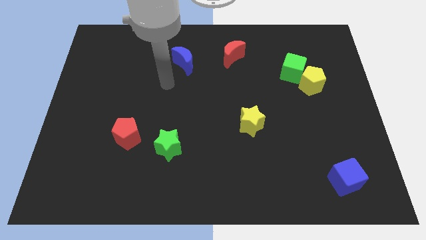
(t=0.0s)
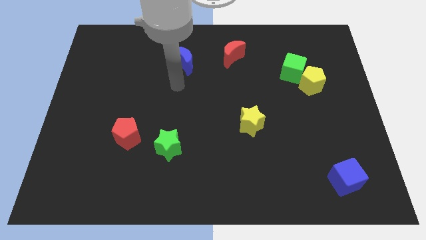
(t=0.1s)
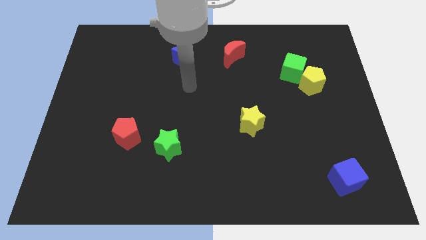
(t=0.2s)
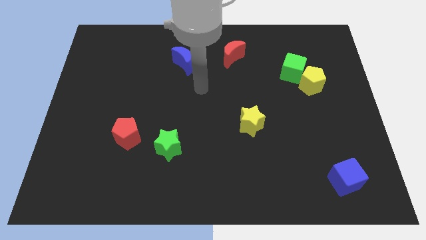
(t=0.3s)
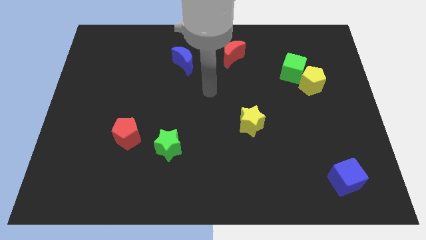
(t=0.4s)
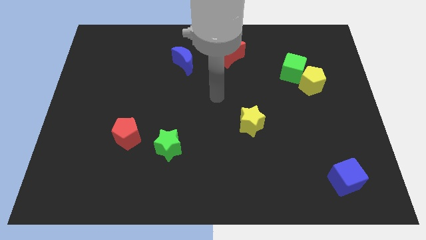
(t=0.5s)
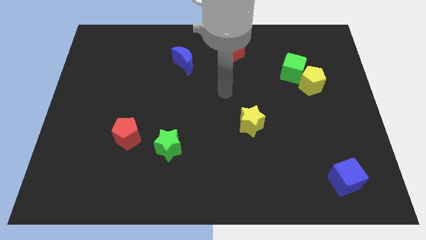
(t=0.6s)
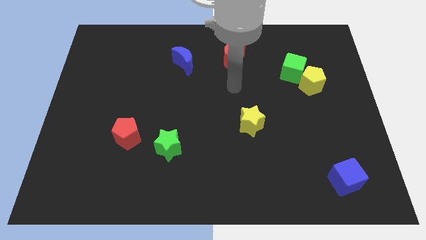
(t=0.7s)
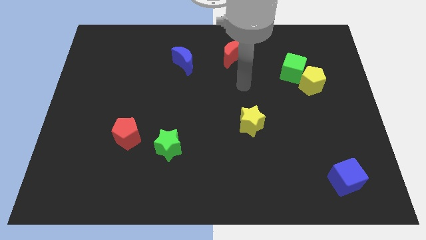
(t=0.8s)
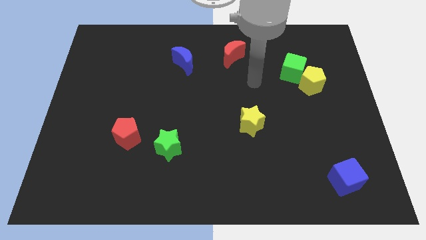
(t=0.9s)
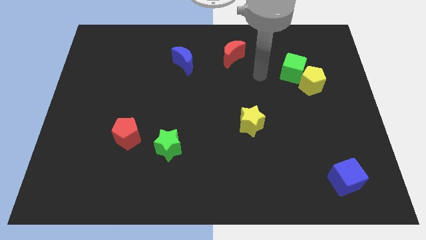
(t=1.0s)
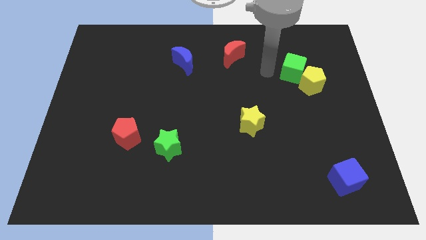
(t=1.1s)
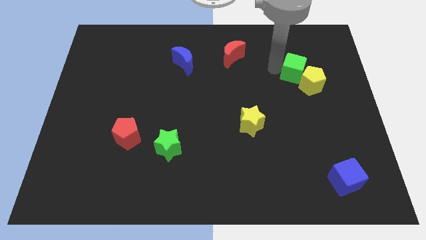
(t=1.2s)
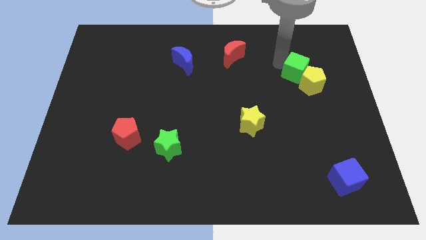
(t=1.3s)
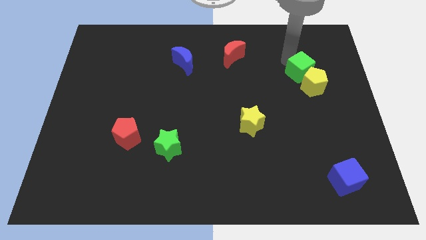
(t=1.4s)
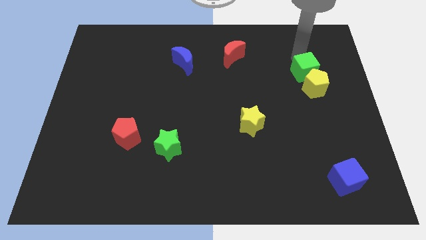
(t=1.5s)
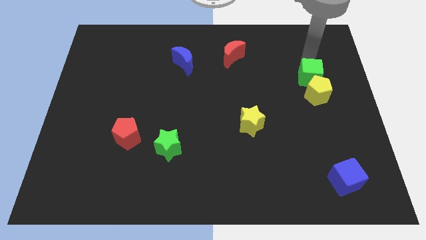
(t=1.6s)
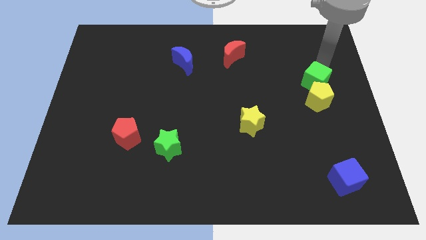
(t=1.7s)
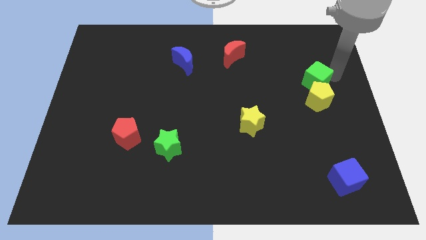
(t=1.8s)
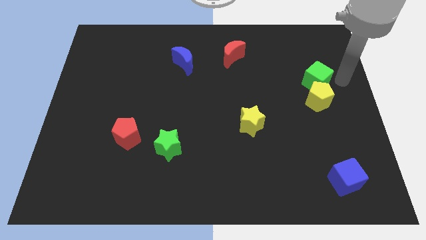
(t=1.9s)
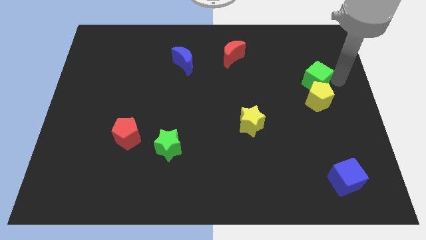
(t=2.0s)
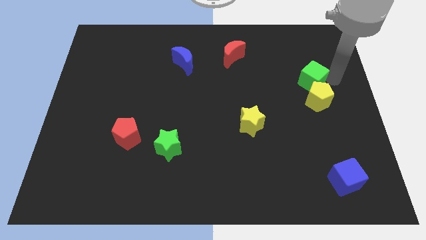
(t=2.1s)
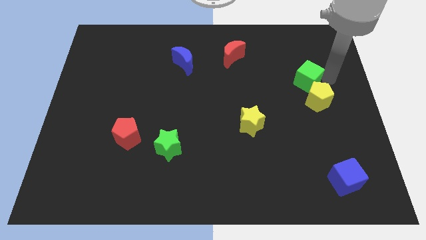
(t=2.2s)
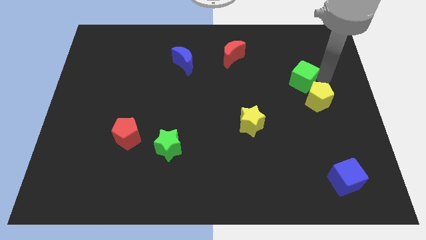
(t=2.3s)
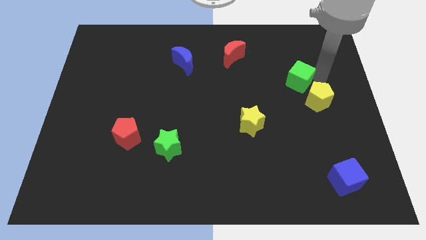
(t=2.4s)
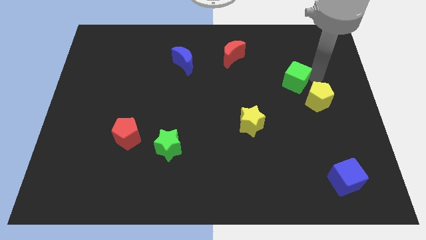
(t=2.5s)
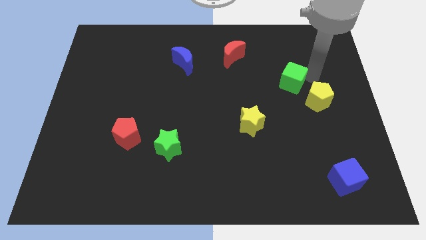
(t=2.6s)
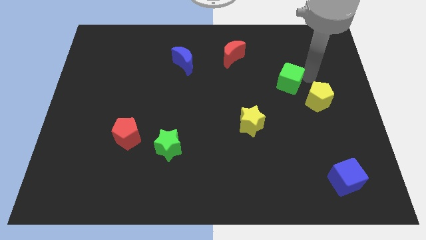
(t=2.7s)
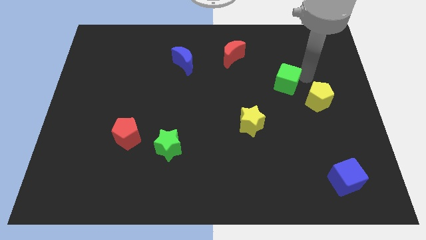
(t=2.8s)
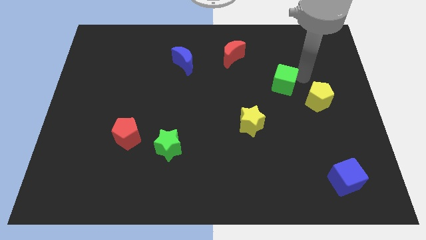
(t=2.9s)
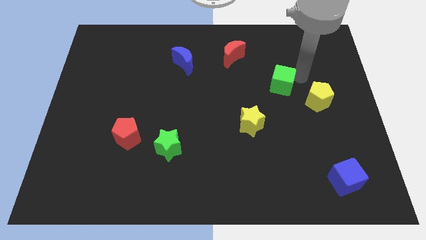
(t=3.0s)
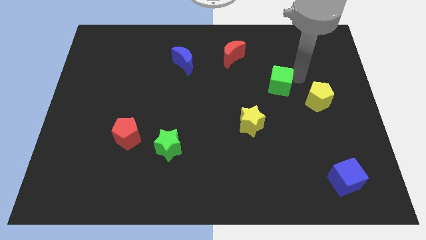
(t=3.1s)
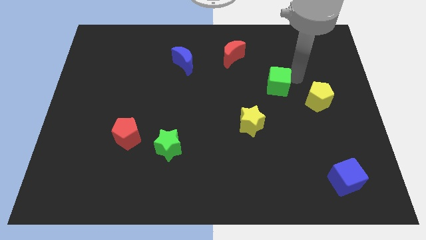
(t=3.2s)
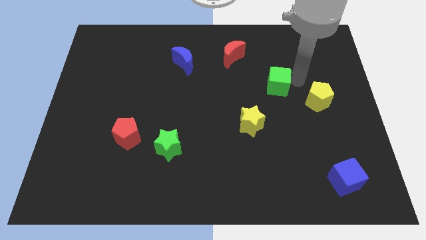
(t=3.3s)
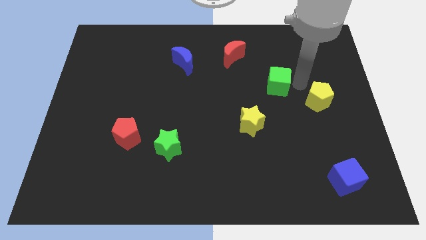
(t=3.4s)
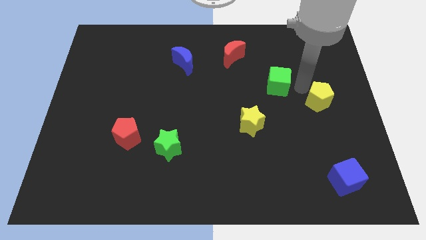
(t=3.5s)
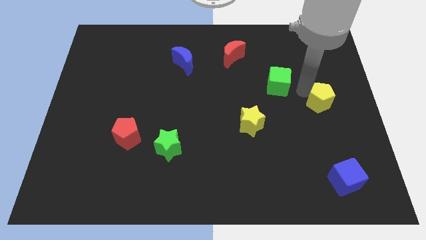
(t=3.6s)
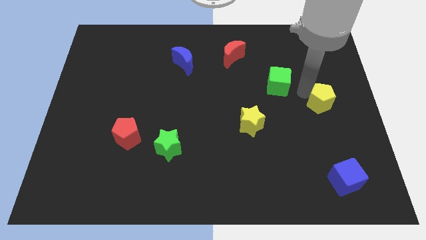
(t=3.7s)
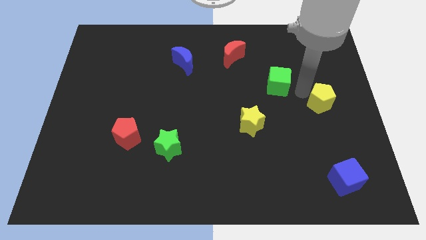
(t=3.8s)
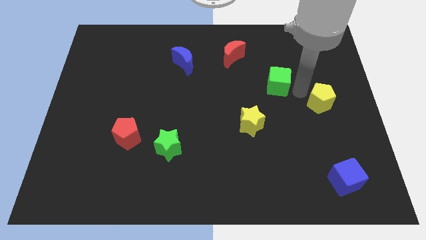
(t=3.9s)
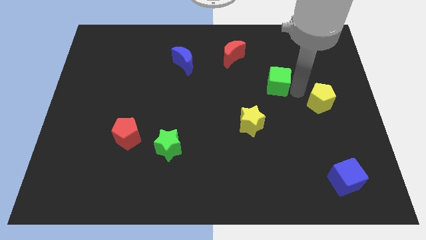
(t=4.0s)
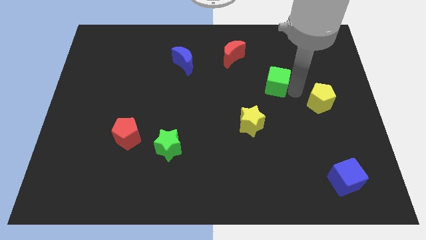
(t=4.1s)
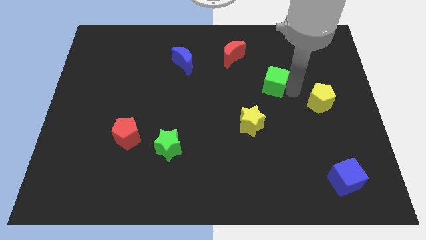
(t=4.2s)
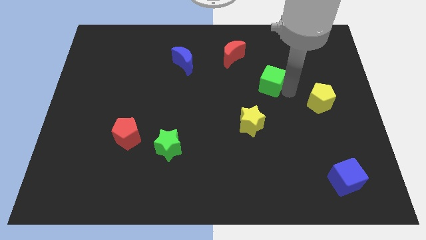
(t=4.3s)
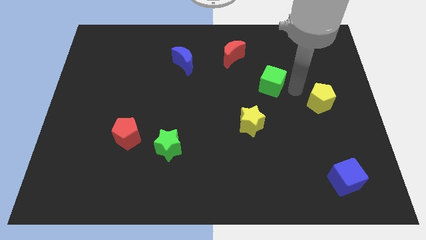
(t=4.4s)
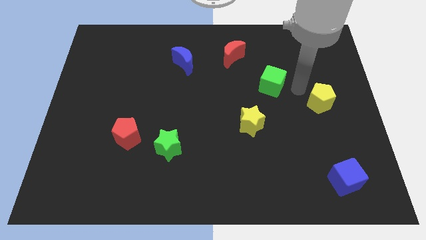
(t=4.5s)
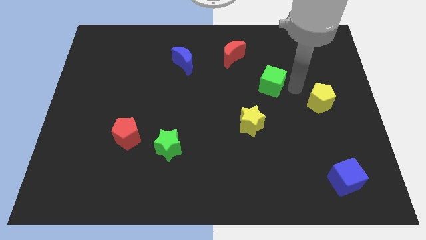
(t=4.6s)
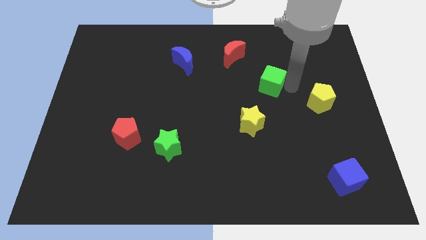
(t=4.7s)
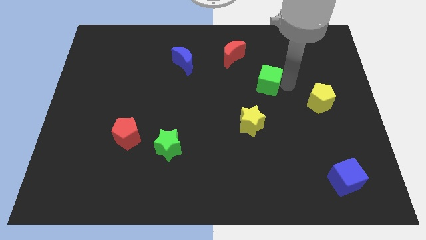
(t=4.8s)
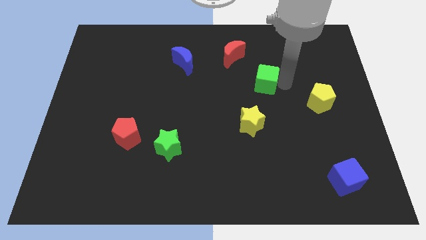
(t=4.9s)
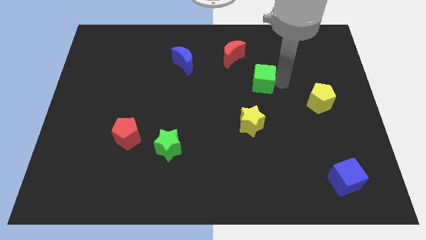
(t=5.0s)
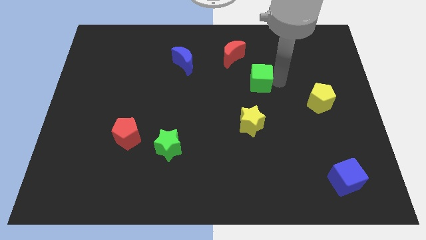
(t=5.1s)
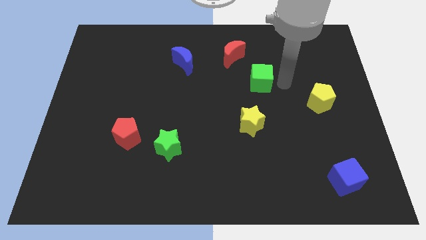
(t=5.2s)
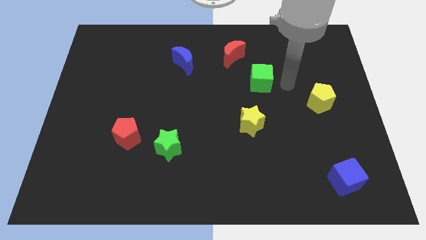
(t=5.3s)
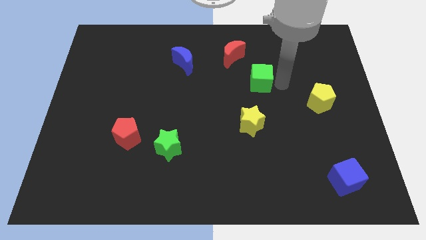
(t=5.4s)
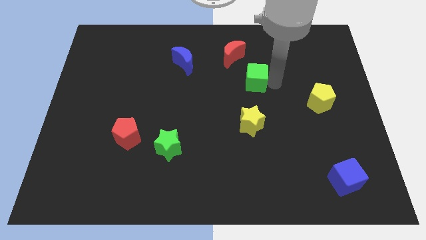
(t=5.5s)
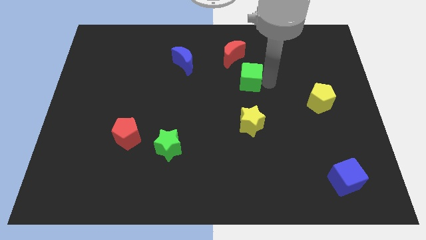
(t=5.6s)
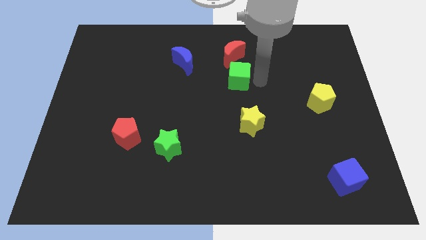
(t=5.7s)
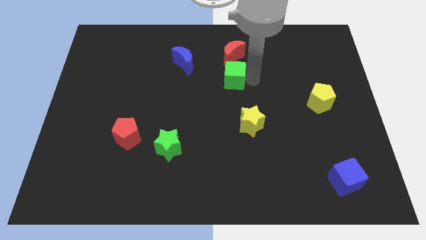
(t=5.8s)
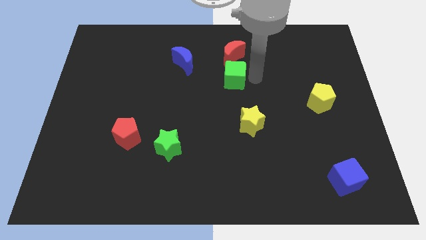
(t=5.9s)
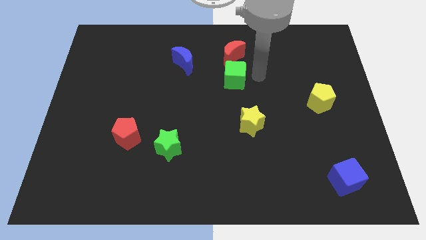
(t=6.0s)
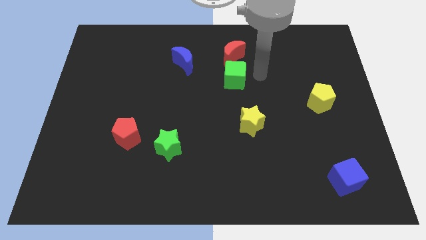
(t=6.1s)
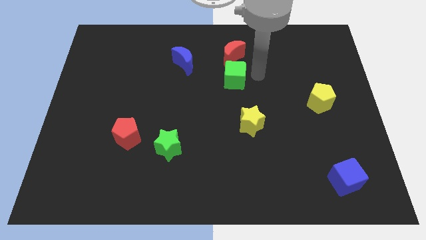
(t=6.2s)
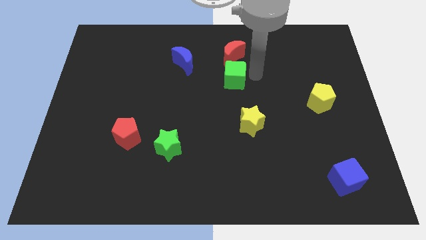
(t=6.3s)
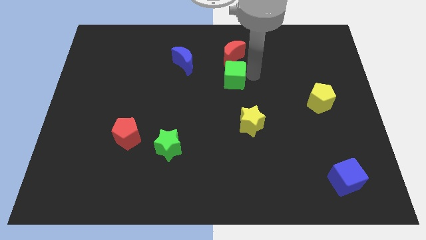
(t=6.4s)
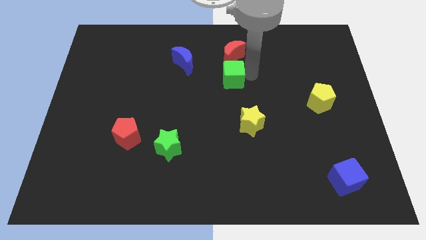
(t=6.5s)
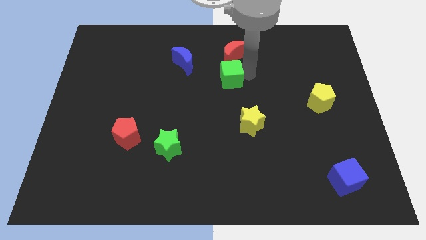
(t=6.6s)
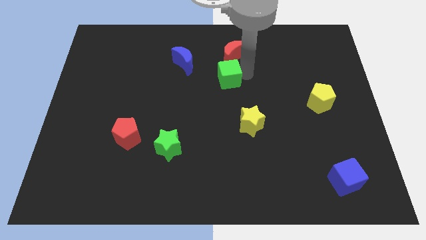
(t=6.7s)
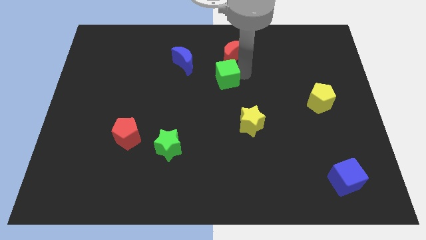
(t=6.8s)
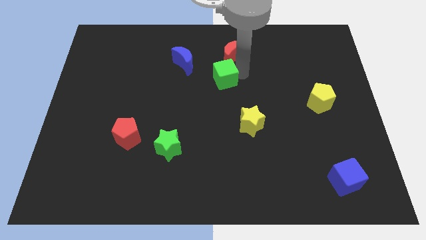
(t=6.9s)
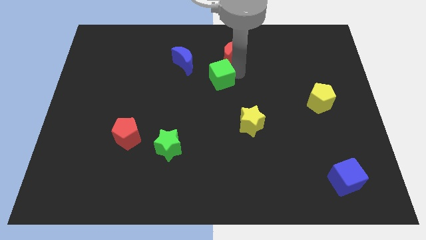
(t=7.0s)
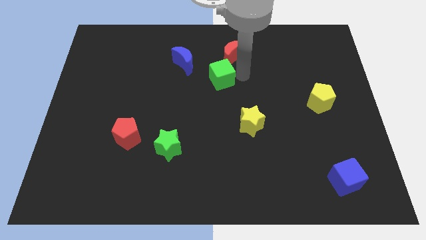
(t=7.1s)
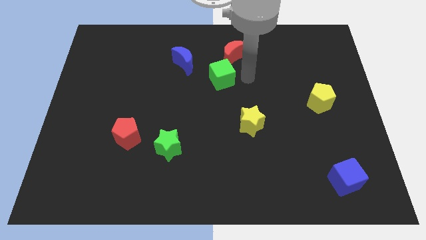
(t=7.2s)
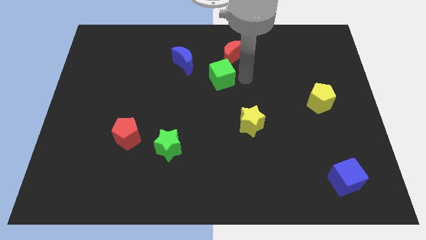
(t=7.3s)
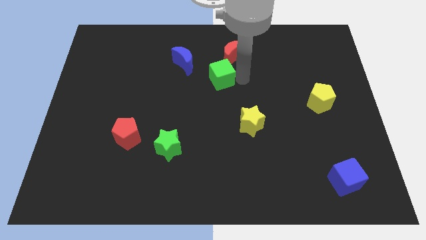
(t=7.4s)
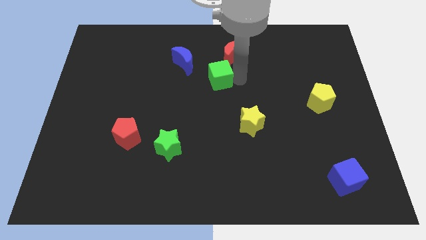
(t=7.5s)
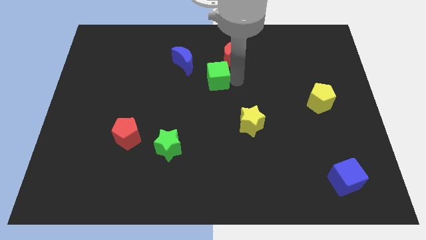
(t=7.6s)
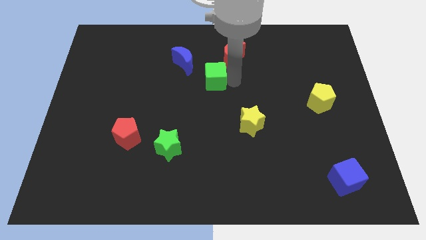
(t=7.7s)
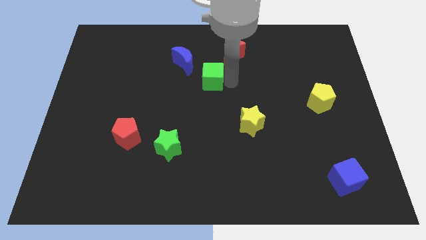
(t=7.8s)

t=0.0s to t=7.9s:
push the green cube to the left

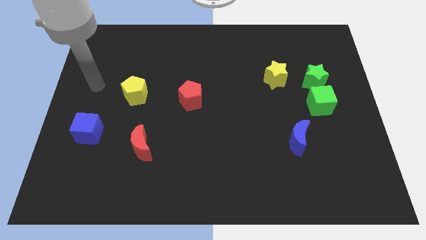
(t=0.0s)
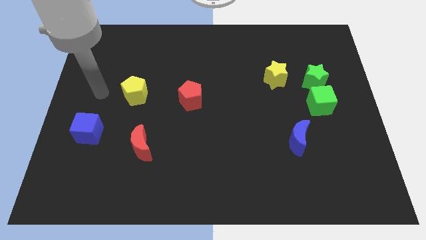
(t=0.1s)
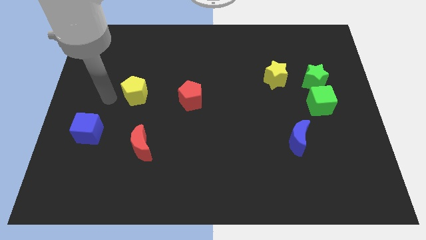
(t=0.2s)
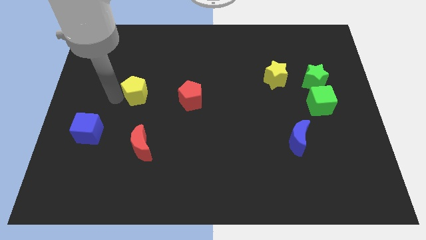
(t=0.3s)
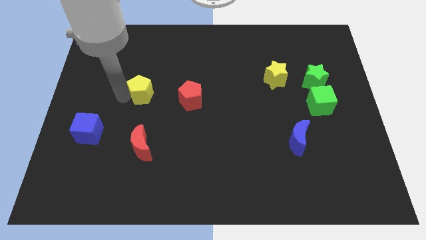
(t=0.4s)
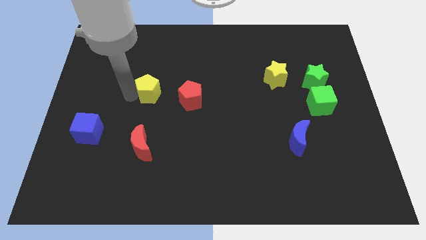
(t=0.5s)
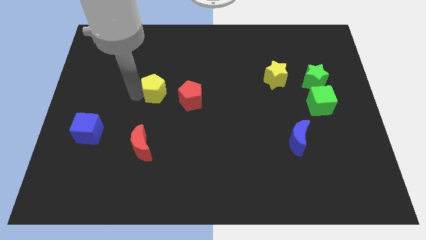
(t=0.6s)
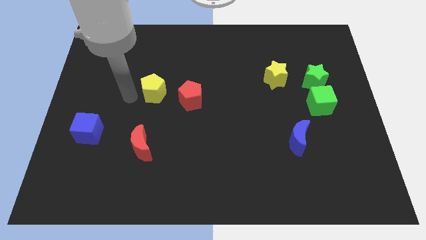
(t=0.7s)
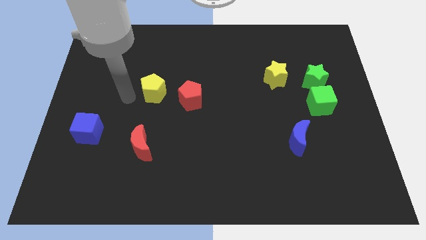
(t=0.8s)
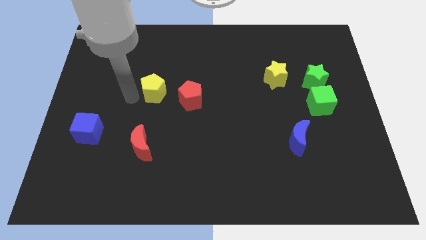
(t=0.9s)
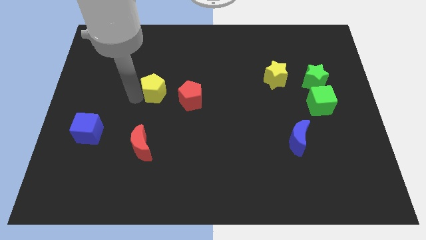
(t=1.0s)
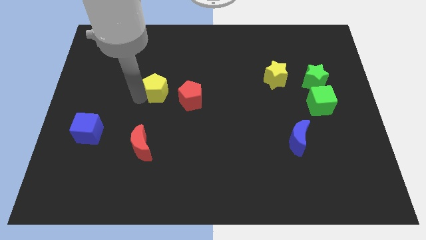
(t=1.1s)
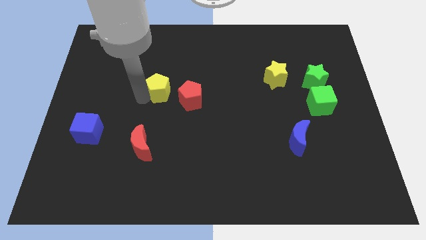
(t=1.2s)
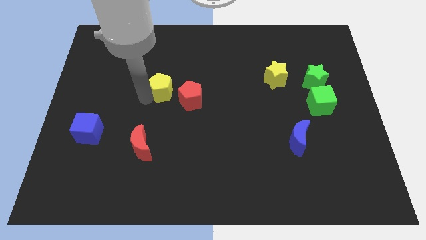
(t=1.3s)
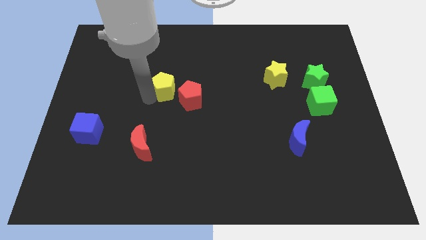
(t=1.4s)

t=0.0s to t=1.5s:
push the yellow pentagon right a little bit
